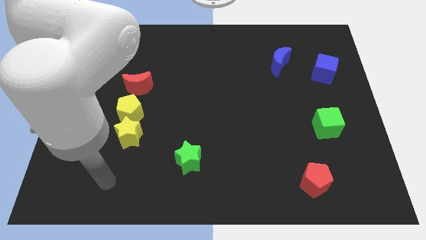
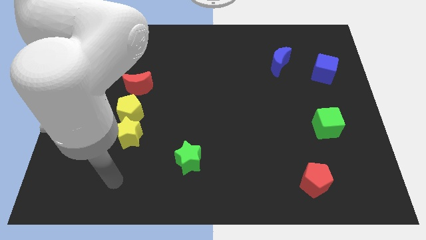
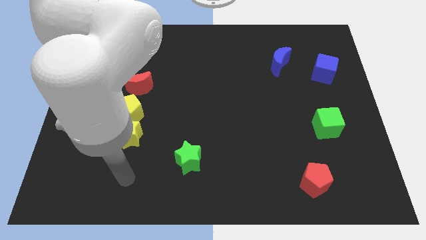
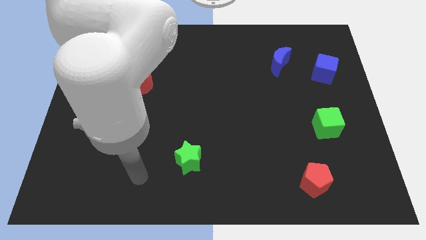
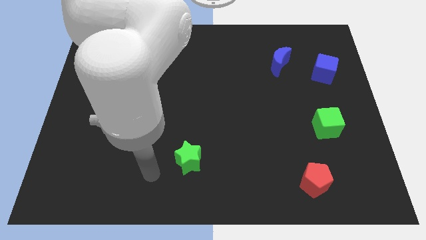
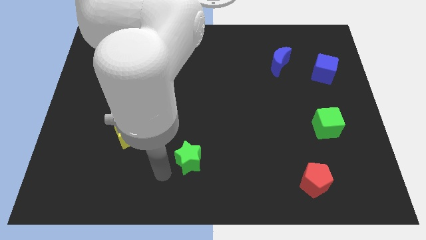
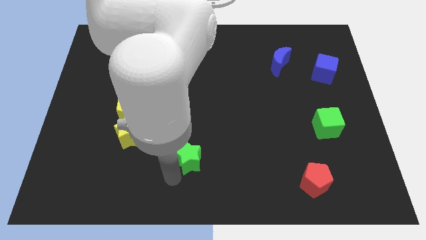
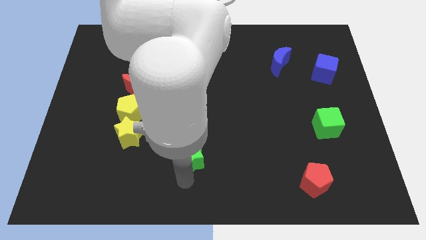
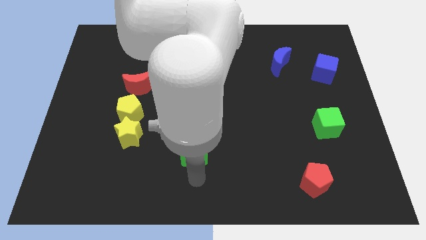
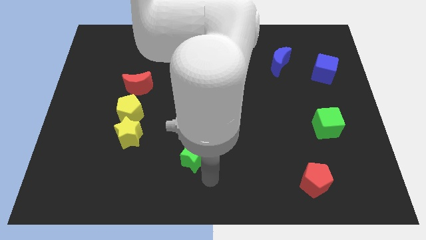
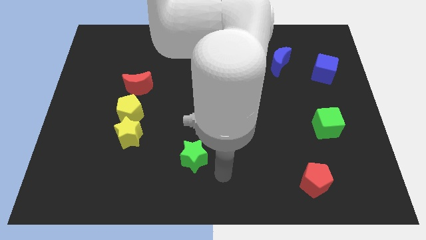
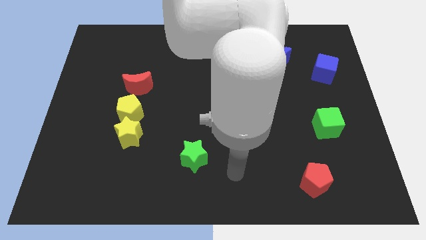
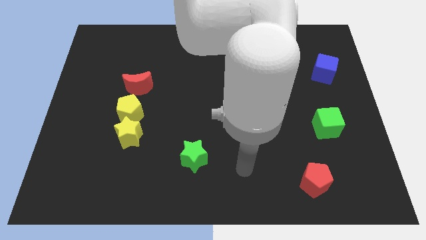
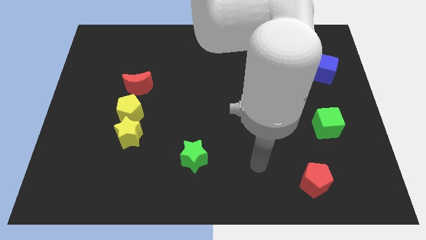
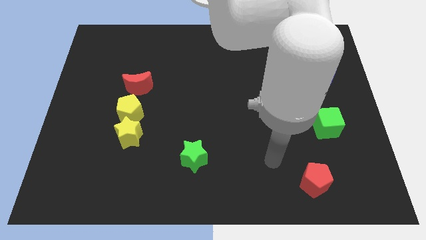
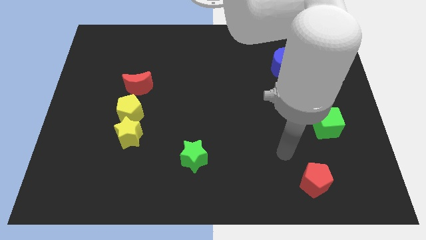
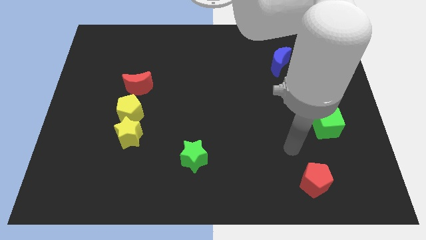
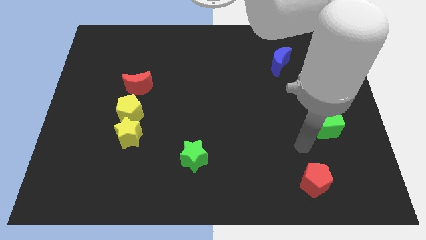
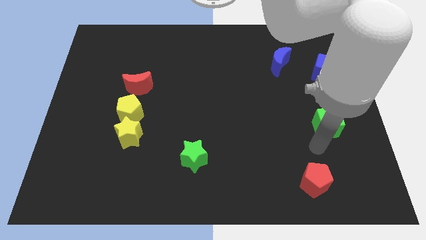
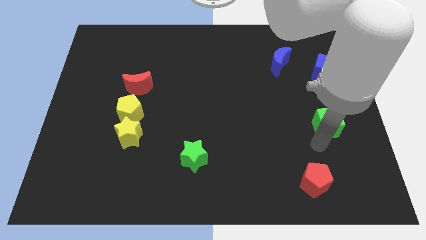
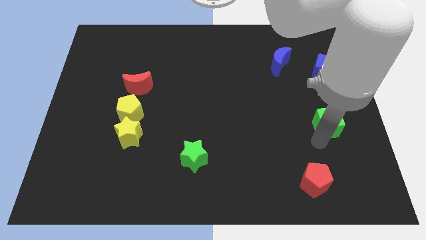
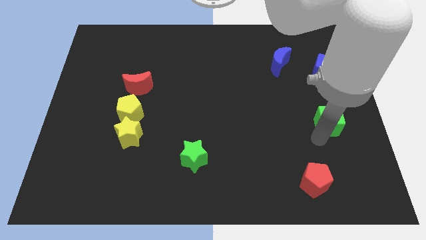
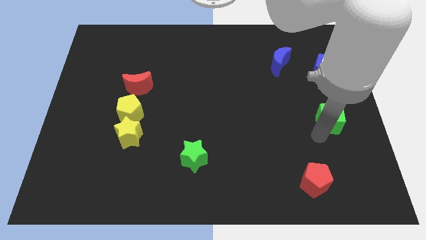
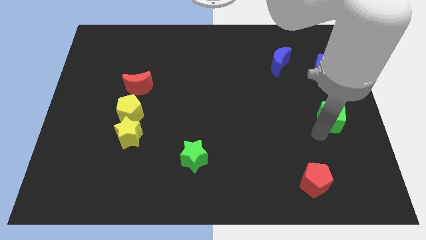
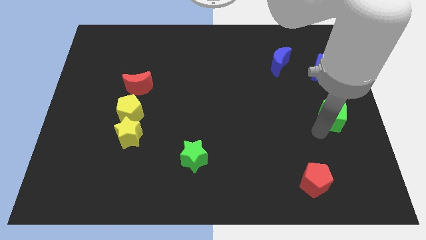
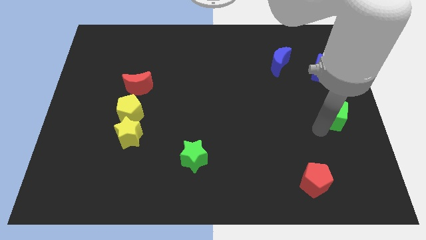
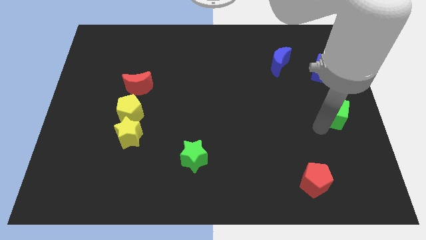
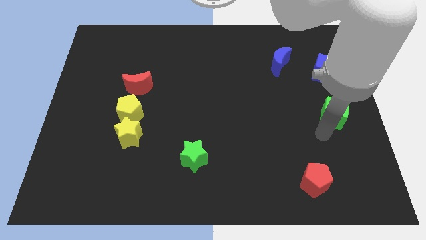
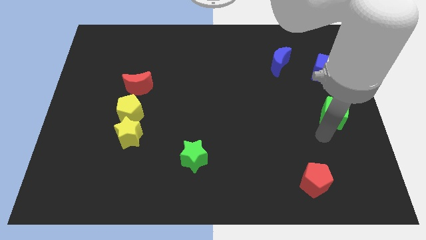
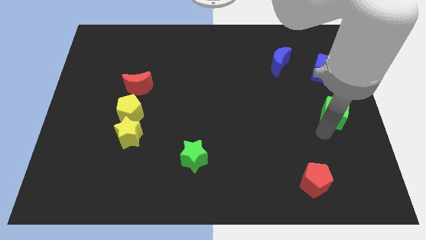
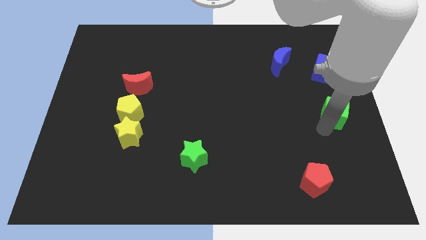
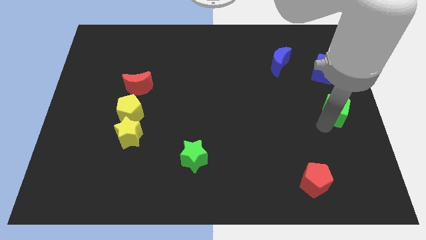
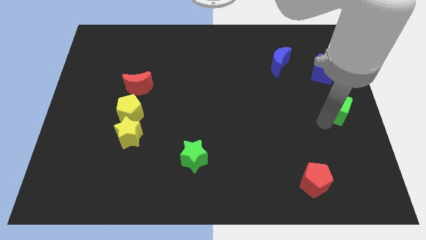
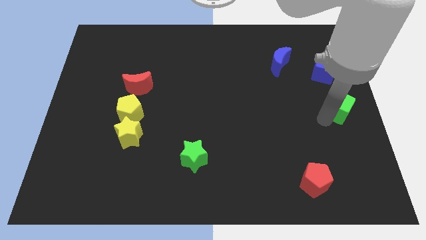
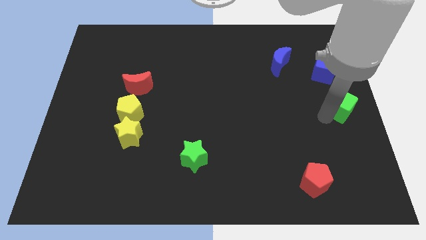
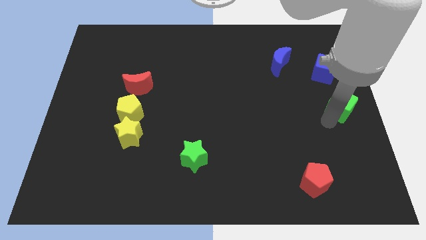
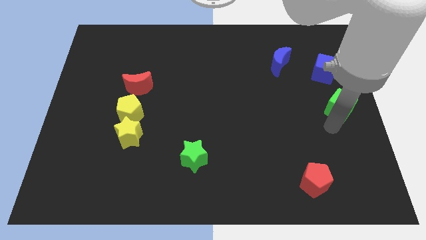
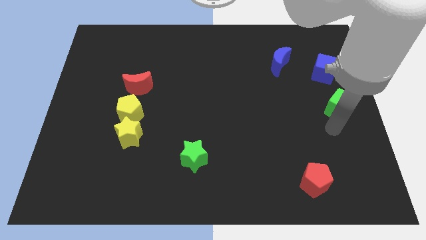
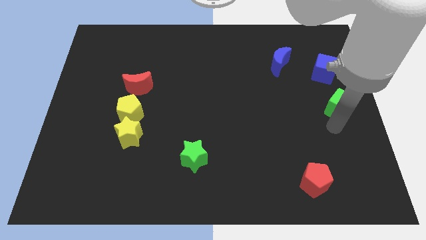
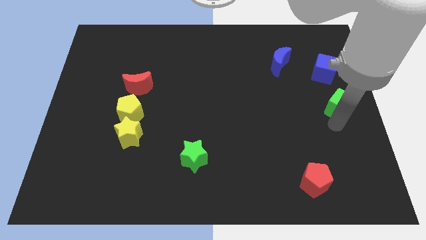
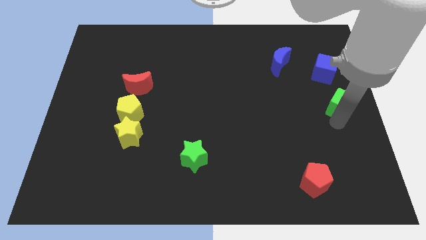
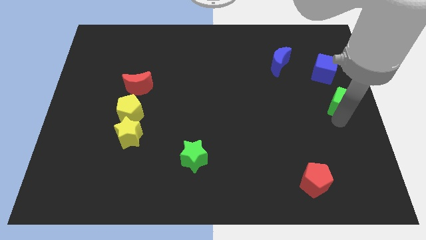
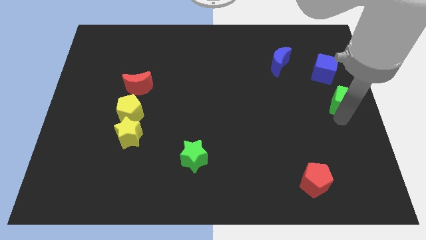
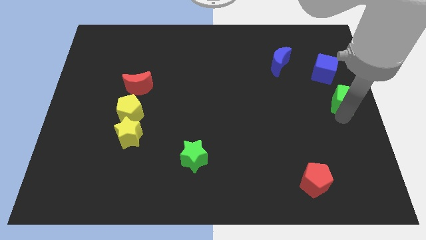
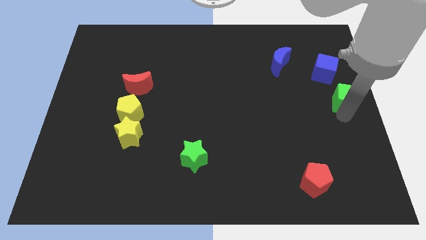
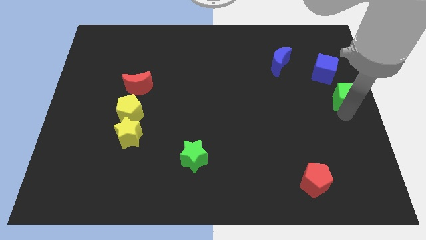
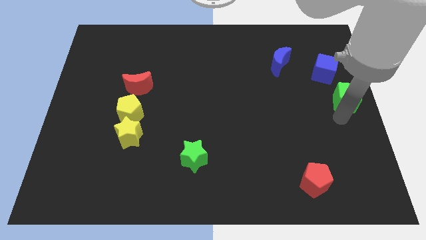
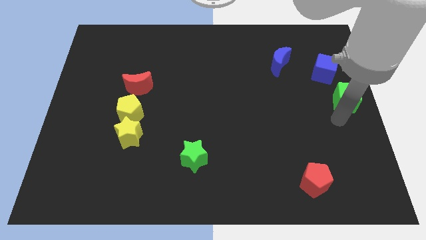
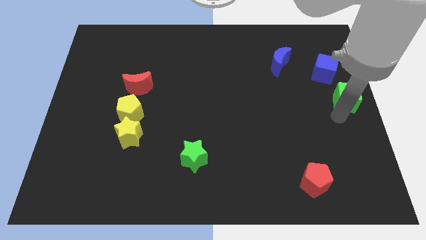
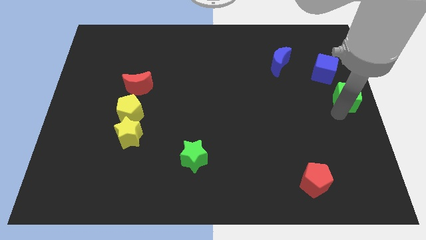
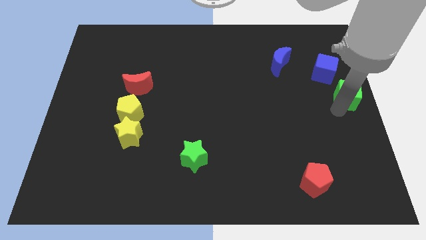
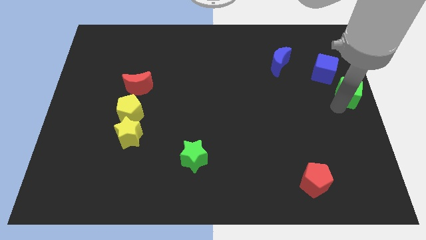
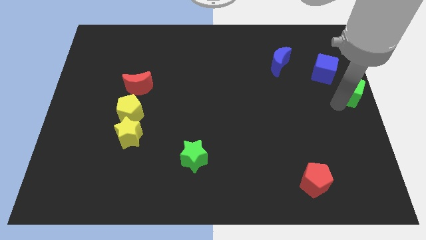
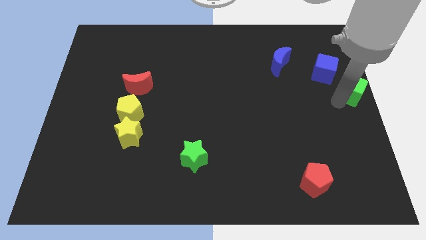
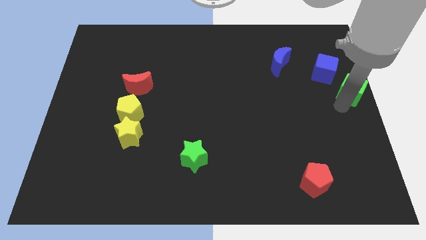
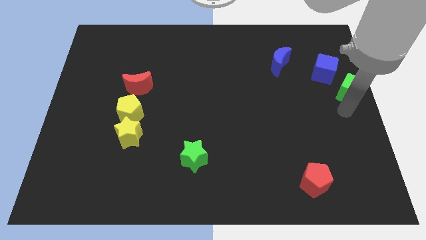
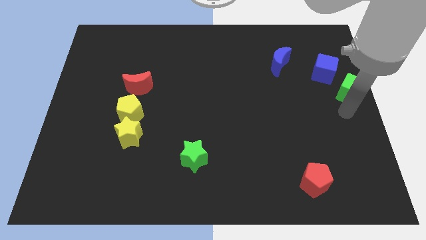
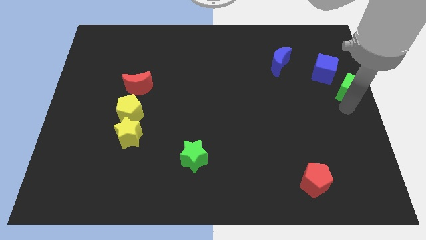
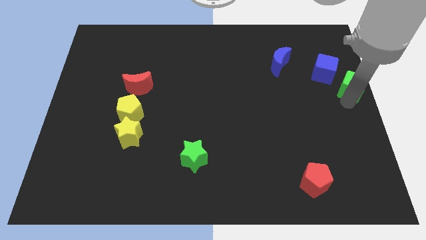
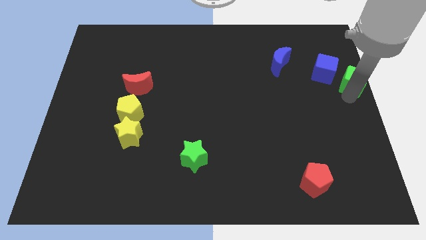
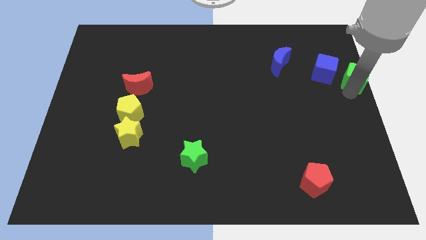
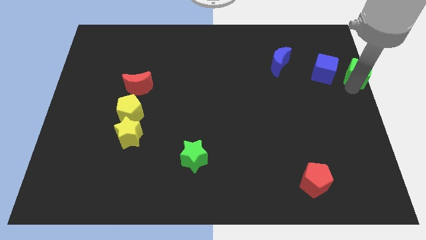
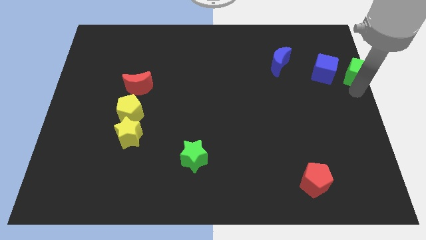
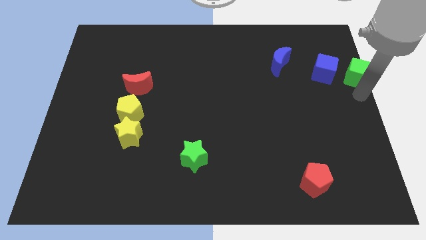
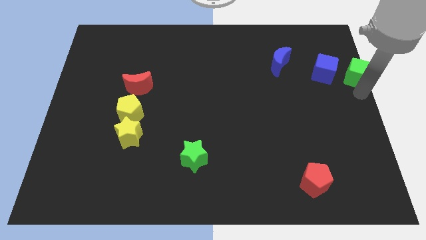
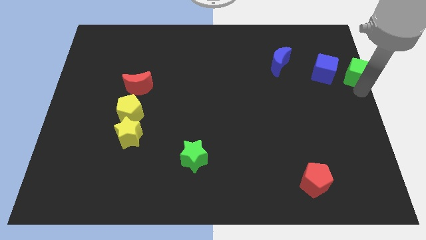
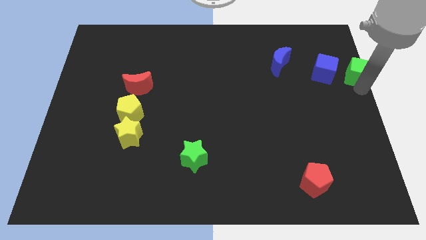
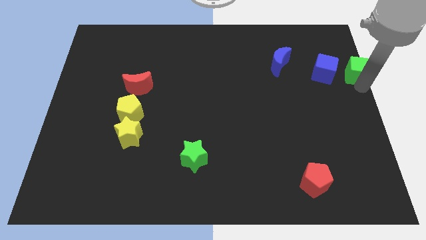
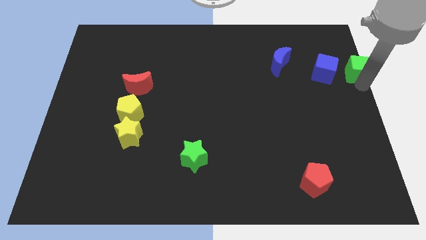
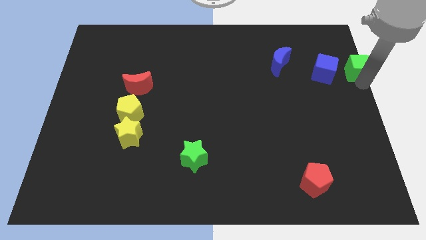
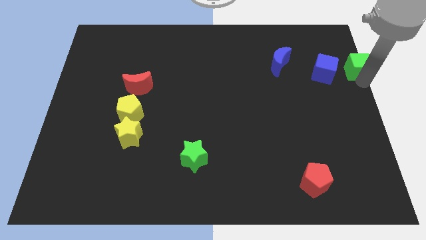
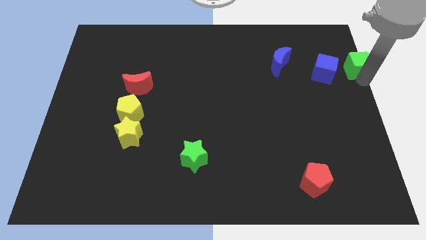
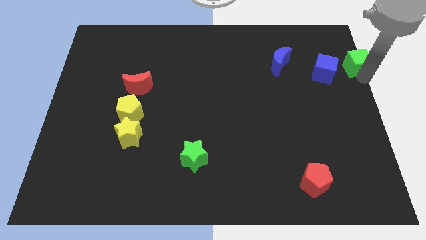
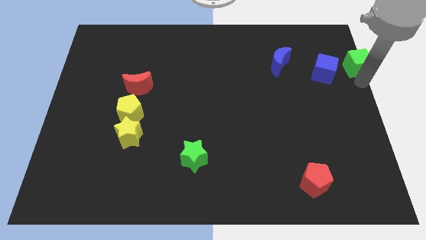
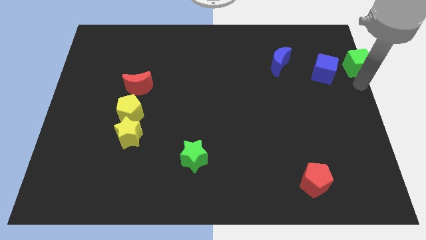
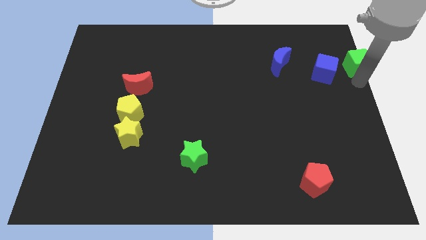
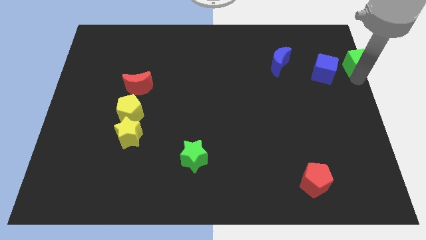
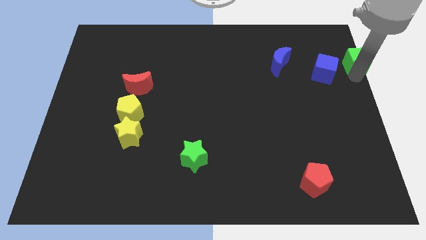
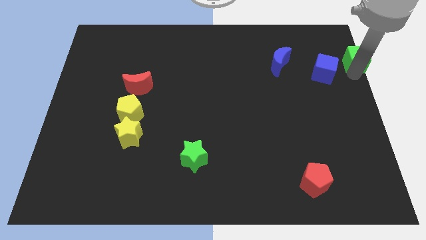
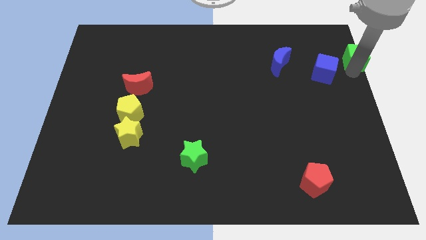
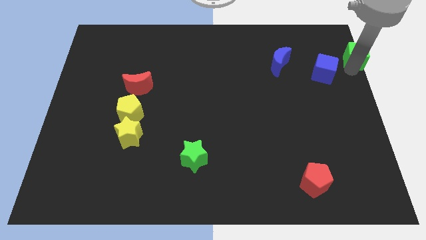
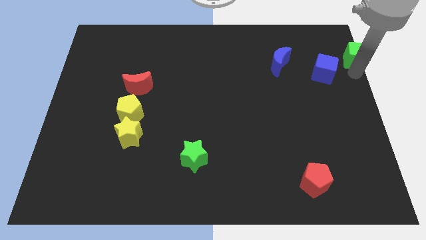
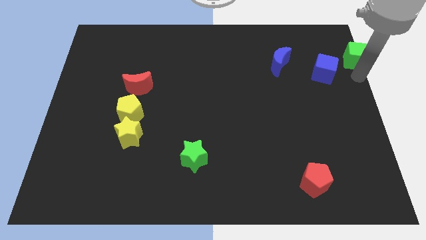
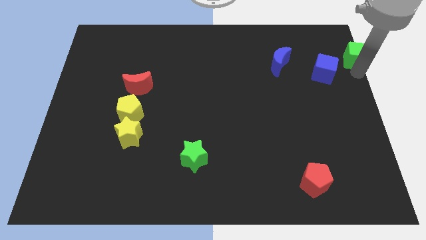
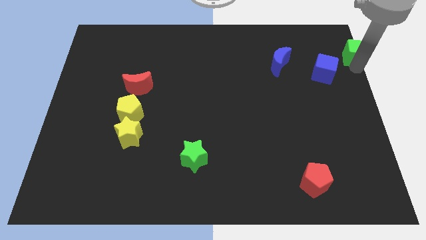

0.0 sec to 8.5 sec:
push the green cube to the upper right corner
